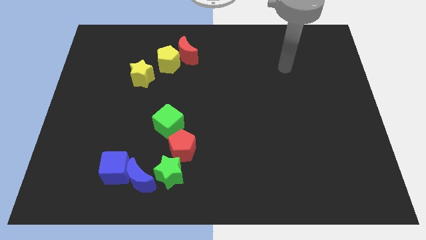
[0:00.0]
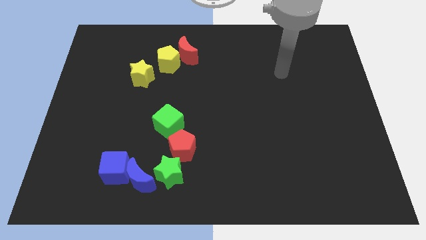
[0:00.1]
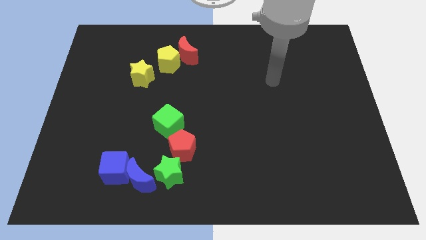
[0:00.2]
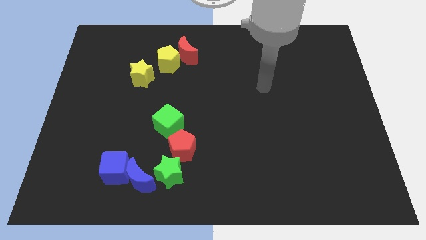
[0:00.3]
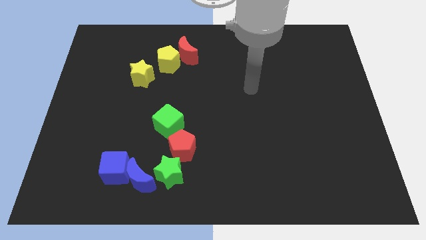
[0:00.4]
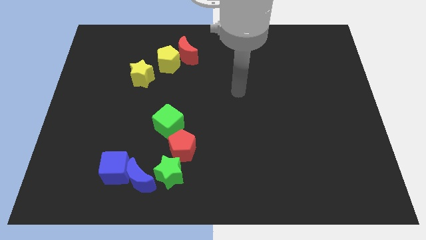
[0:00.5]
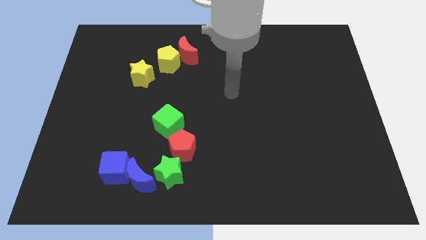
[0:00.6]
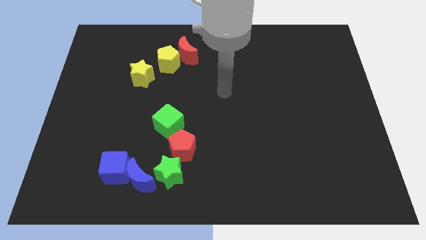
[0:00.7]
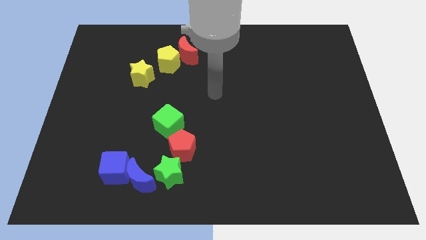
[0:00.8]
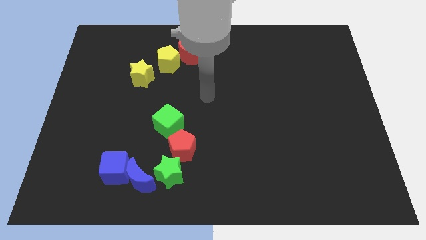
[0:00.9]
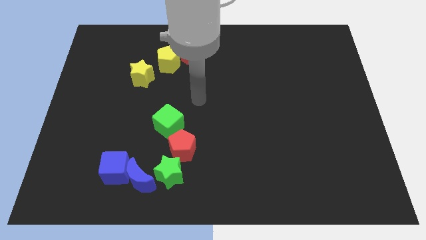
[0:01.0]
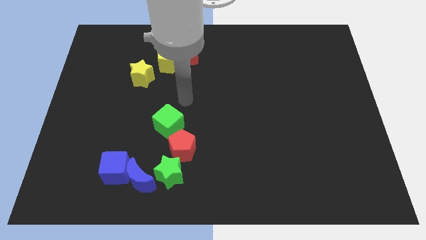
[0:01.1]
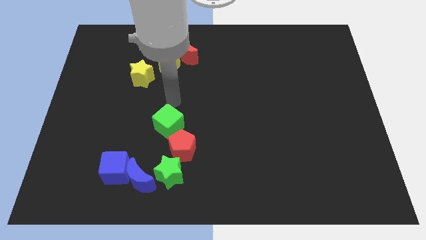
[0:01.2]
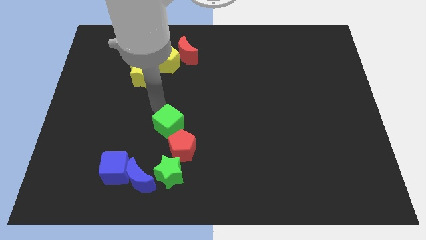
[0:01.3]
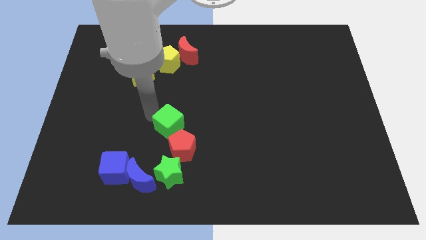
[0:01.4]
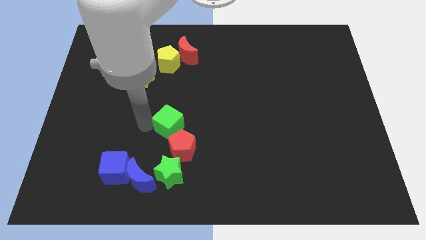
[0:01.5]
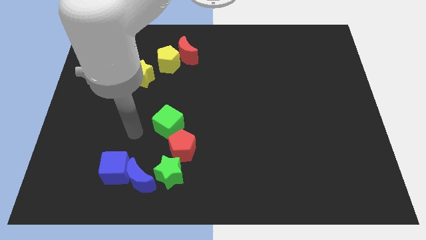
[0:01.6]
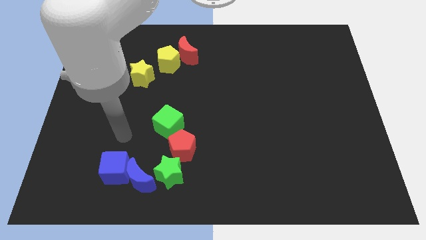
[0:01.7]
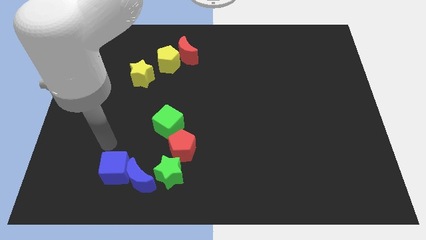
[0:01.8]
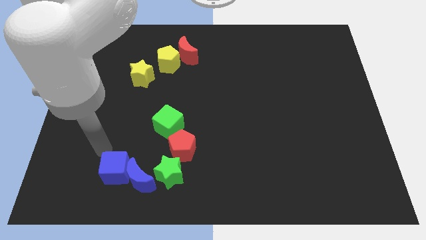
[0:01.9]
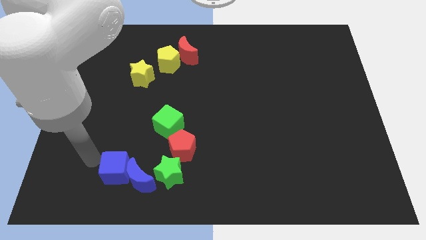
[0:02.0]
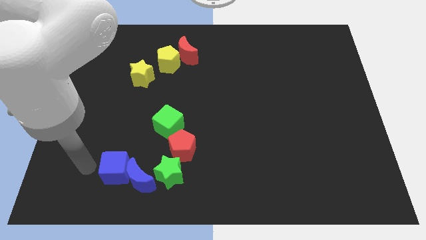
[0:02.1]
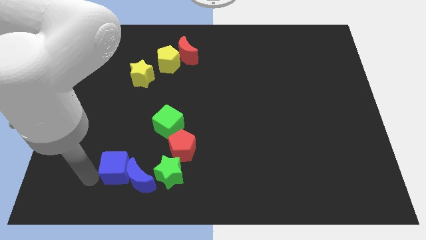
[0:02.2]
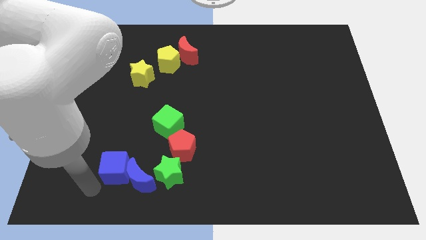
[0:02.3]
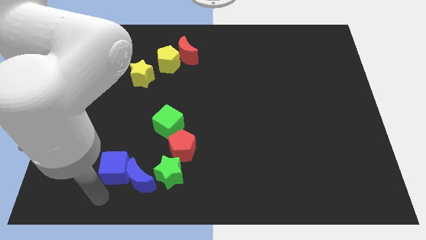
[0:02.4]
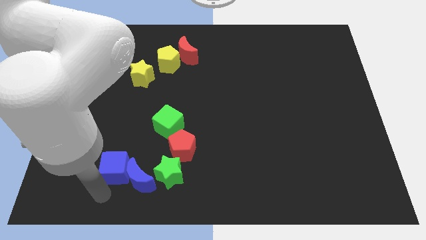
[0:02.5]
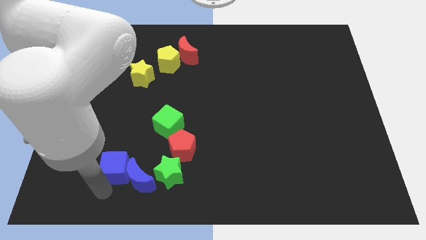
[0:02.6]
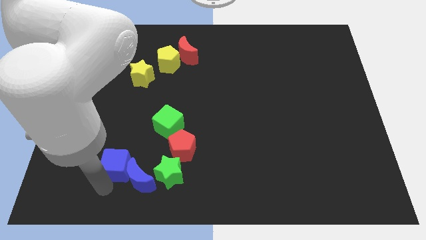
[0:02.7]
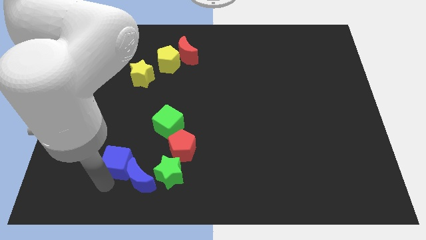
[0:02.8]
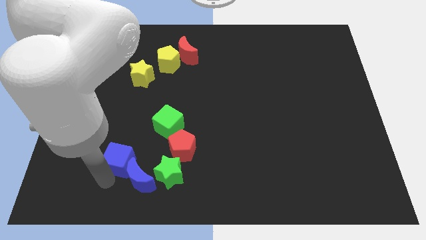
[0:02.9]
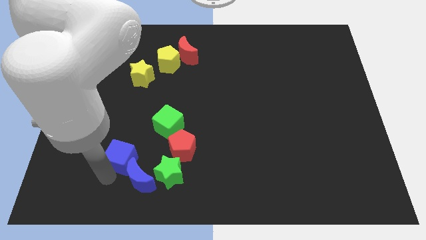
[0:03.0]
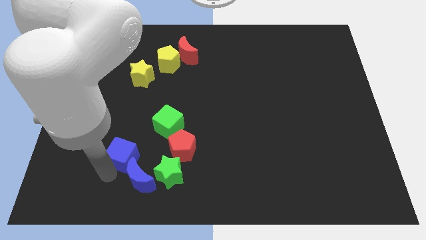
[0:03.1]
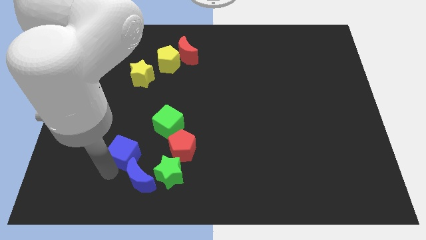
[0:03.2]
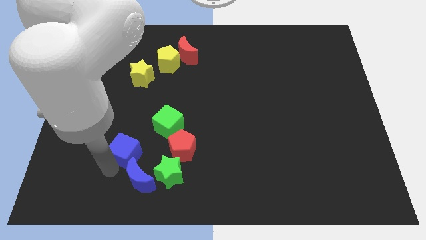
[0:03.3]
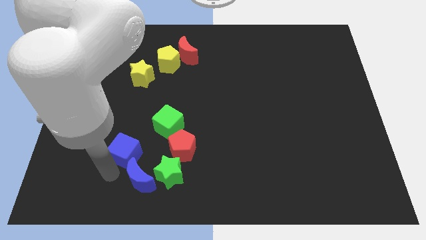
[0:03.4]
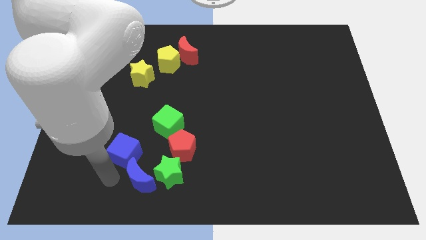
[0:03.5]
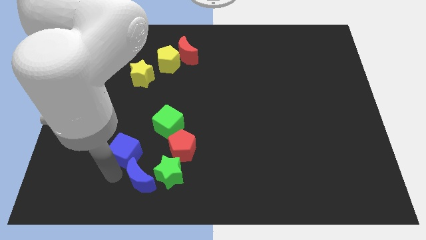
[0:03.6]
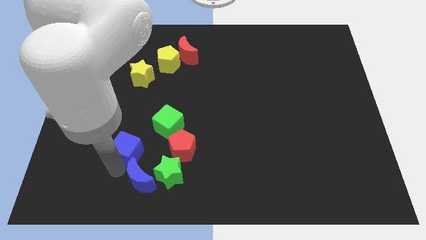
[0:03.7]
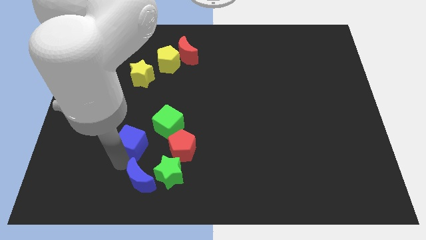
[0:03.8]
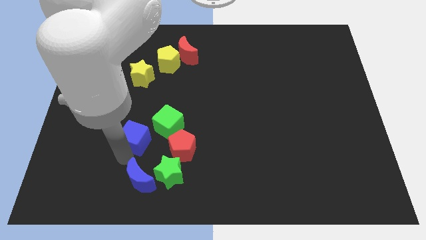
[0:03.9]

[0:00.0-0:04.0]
slightly slide the blue cube upwards and then right

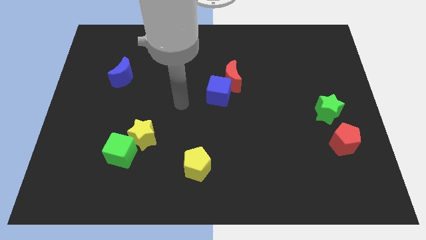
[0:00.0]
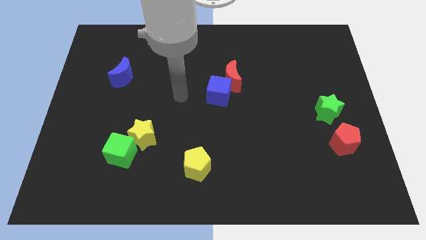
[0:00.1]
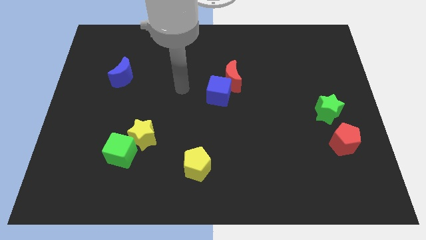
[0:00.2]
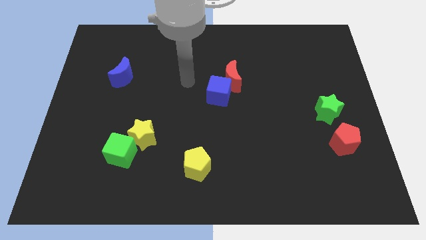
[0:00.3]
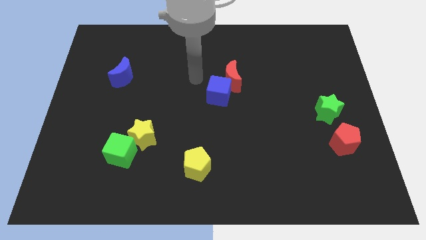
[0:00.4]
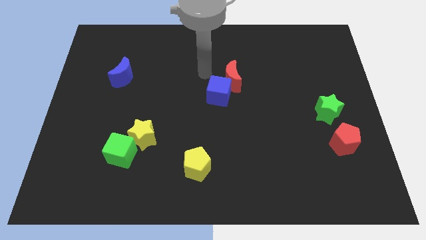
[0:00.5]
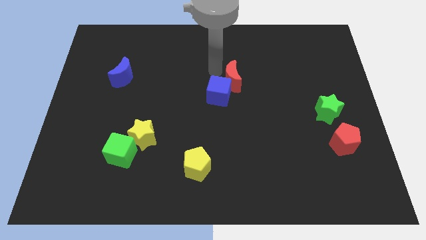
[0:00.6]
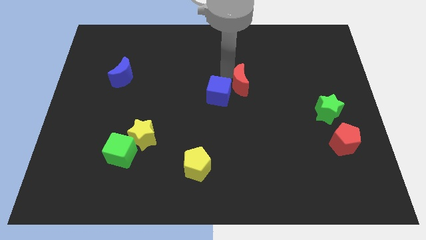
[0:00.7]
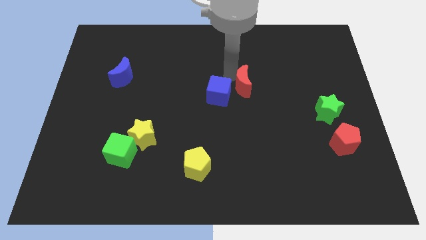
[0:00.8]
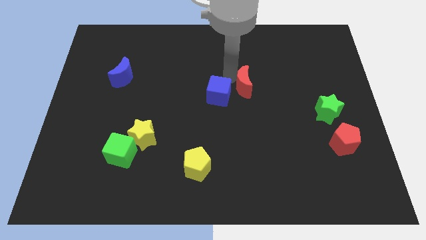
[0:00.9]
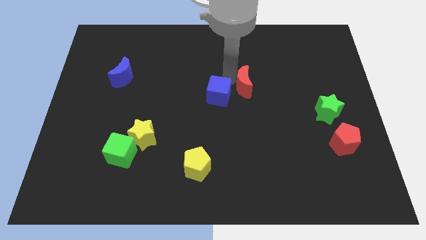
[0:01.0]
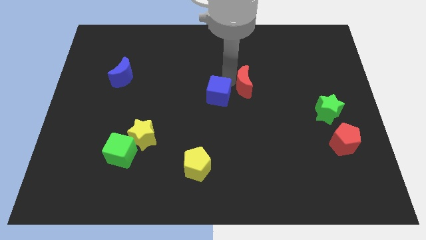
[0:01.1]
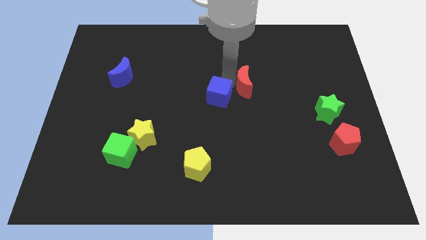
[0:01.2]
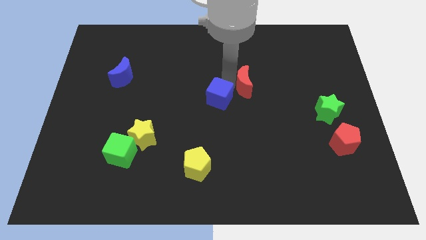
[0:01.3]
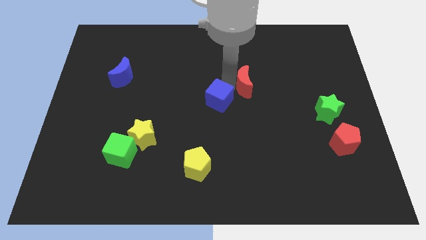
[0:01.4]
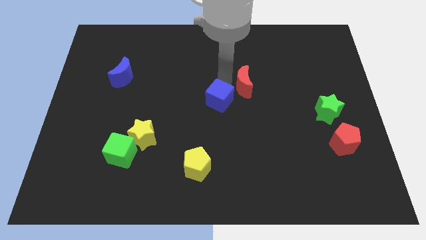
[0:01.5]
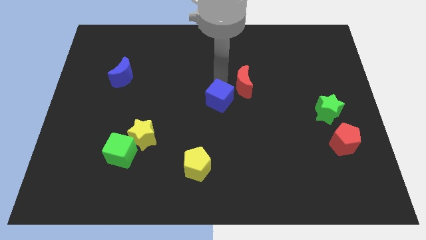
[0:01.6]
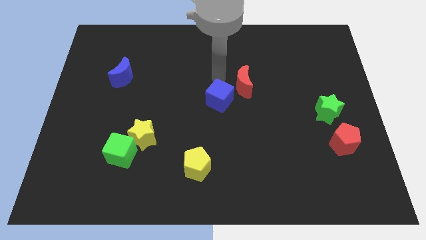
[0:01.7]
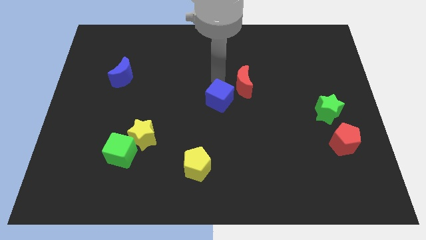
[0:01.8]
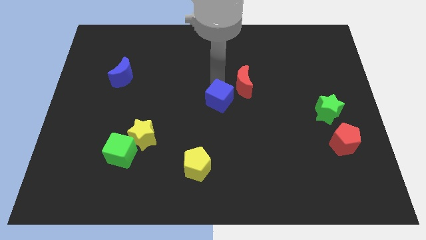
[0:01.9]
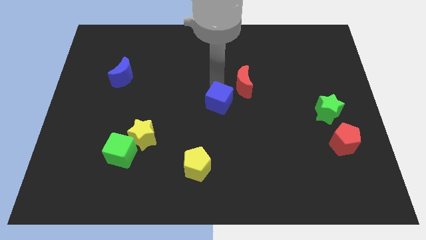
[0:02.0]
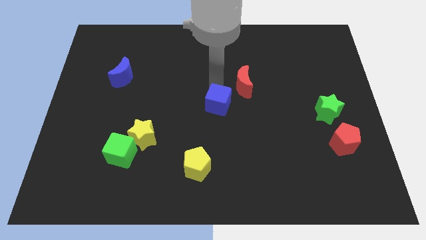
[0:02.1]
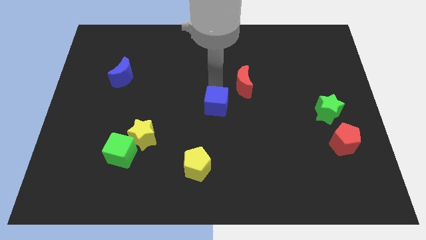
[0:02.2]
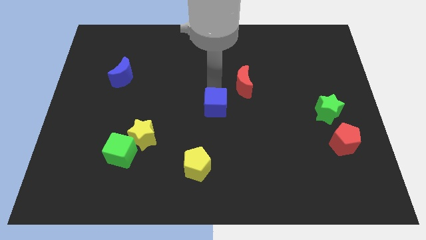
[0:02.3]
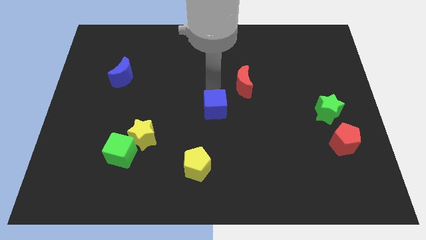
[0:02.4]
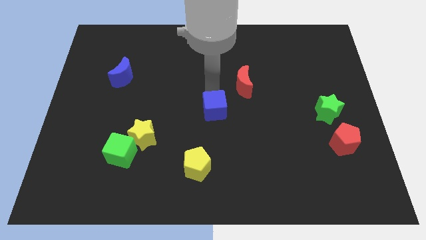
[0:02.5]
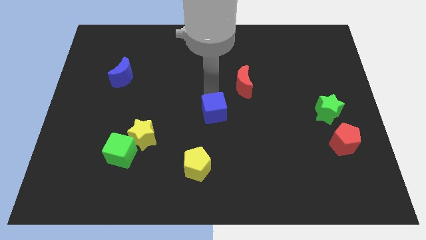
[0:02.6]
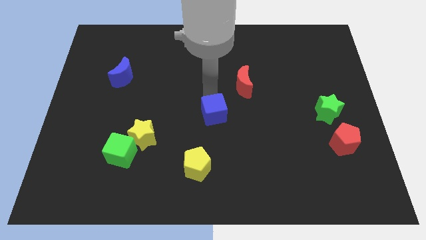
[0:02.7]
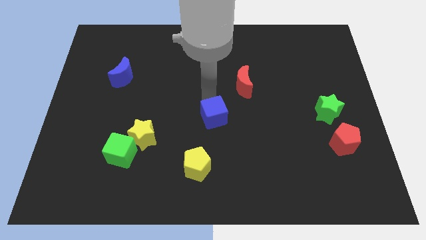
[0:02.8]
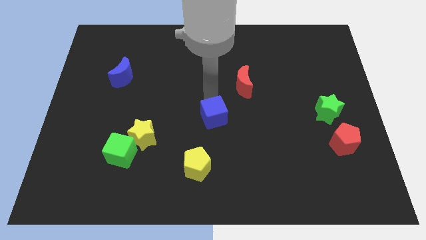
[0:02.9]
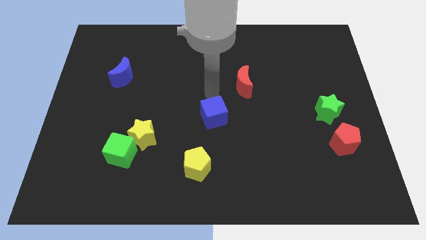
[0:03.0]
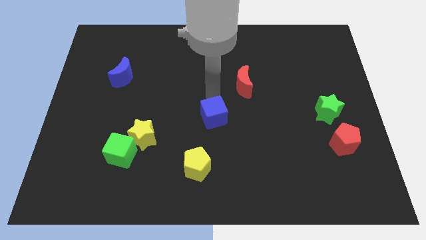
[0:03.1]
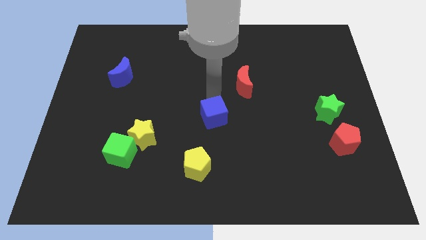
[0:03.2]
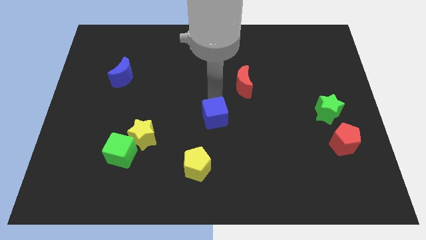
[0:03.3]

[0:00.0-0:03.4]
push the blue cube down a little

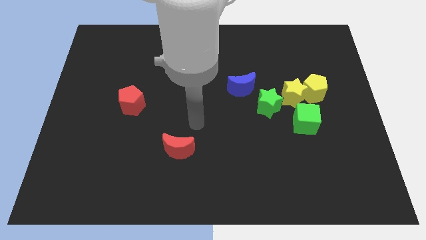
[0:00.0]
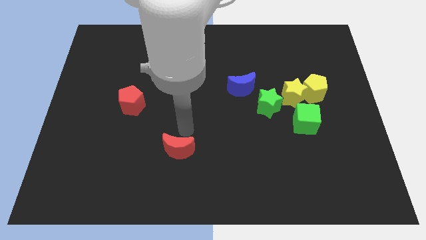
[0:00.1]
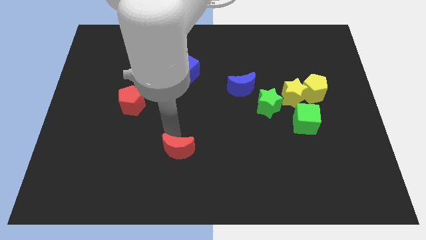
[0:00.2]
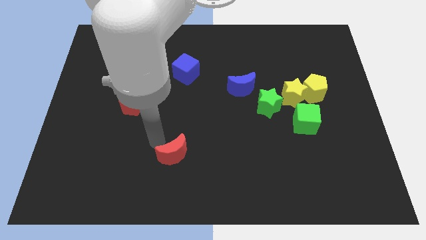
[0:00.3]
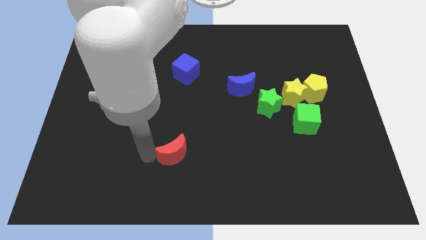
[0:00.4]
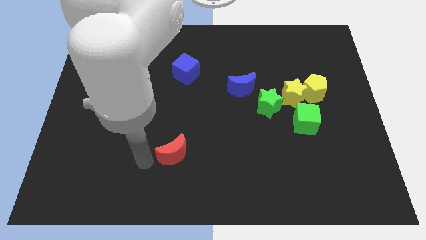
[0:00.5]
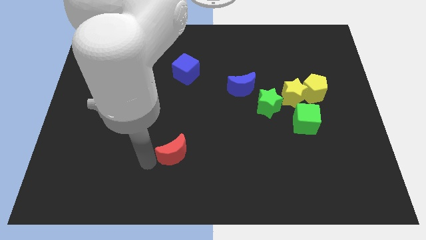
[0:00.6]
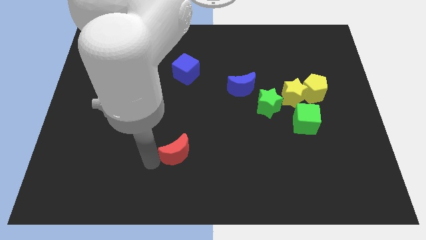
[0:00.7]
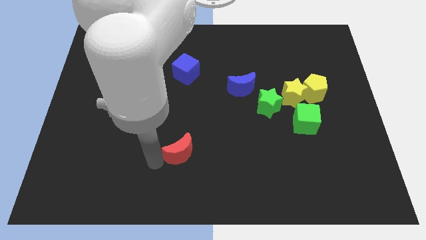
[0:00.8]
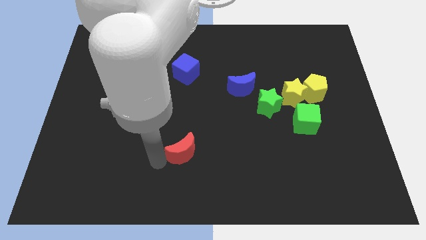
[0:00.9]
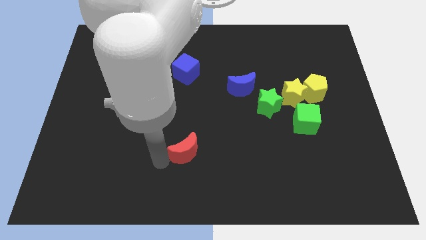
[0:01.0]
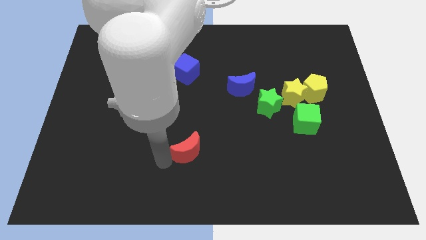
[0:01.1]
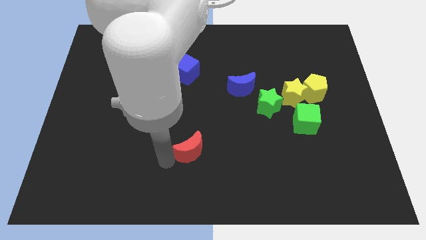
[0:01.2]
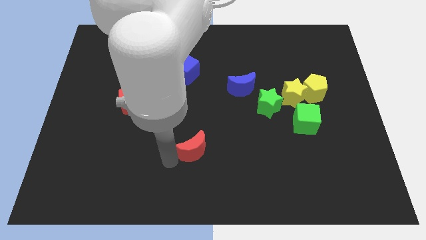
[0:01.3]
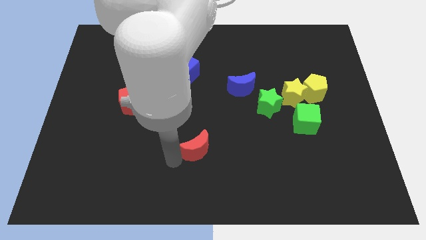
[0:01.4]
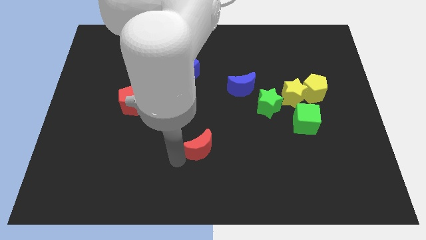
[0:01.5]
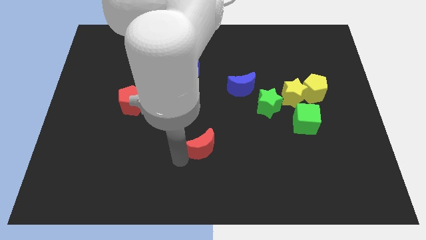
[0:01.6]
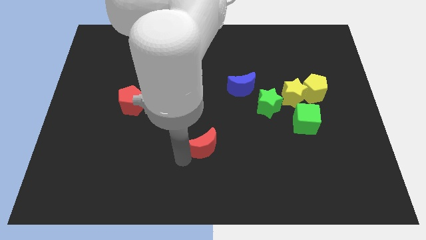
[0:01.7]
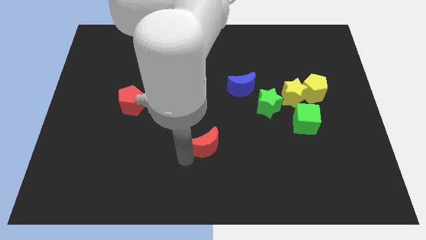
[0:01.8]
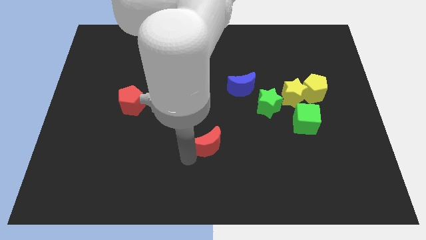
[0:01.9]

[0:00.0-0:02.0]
slightly slide the red moon right
